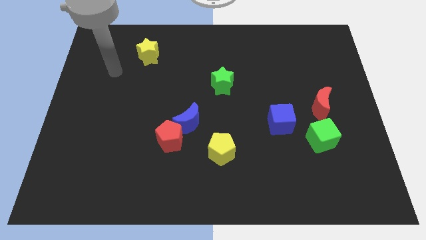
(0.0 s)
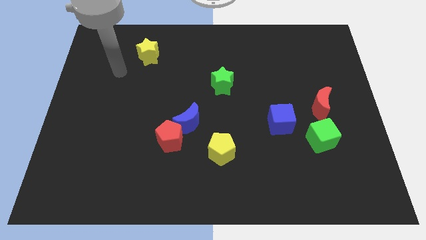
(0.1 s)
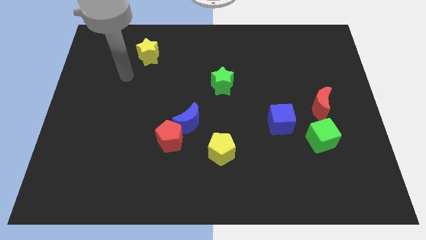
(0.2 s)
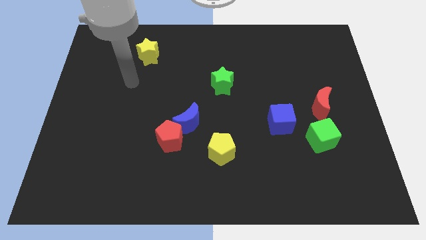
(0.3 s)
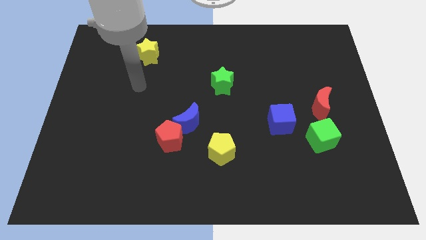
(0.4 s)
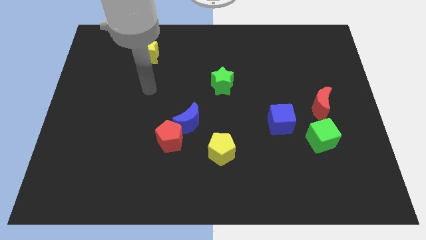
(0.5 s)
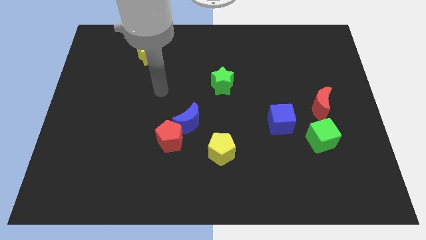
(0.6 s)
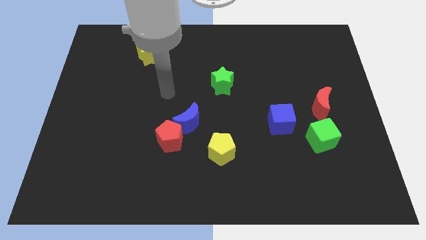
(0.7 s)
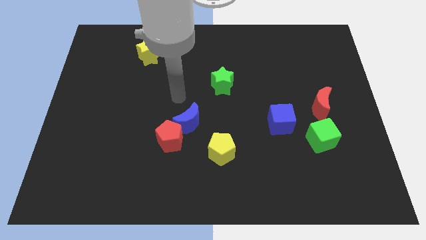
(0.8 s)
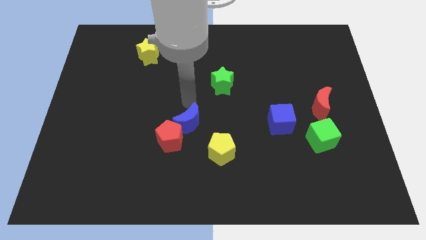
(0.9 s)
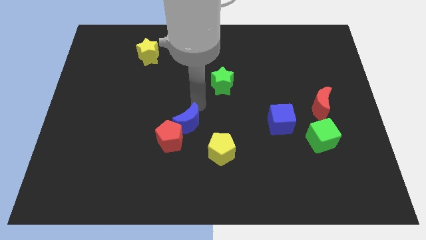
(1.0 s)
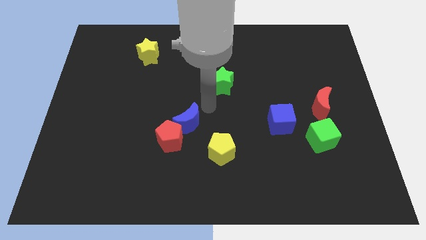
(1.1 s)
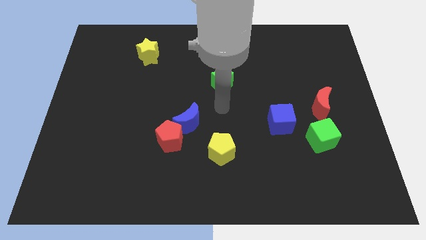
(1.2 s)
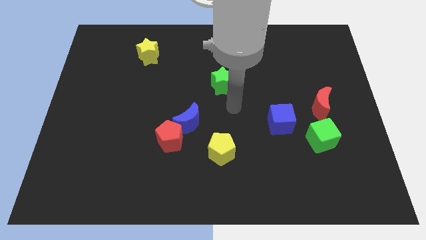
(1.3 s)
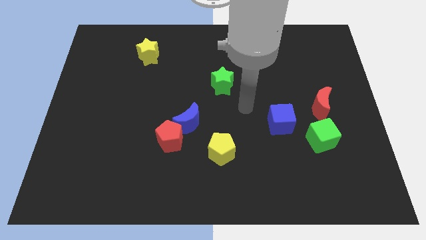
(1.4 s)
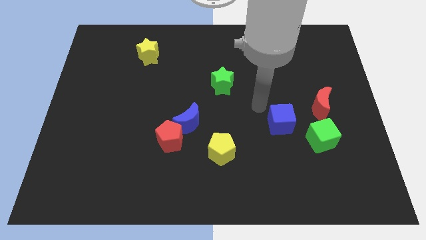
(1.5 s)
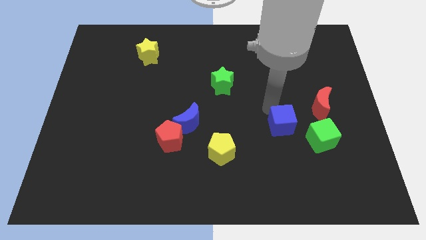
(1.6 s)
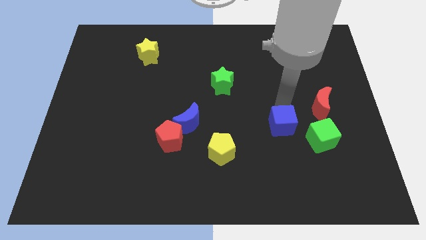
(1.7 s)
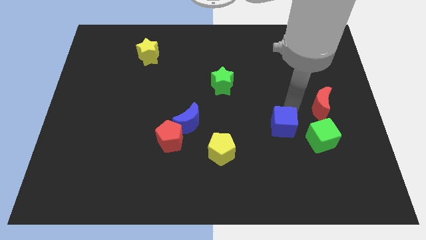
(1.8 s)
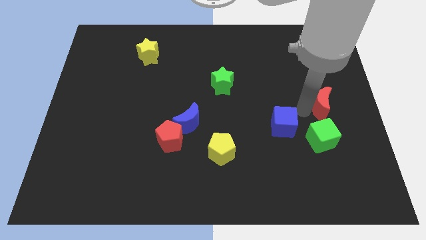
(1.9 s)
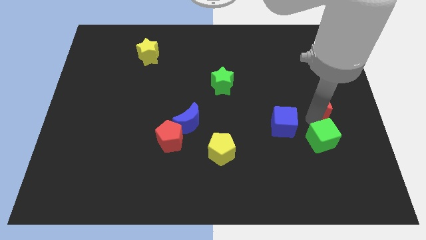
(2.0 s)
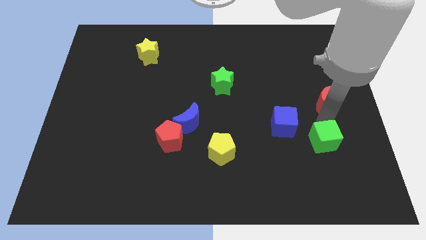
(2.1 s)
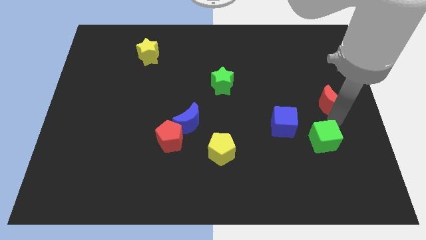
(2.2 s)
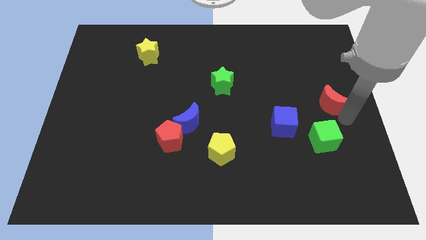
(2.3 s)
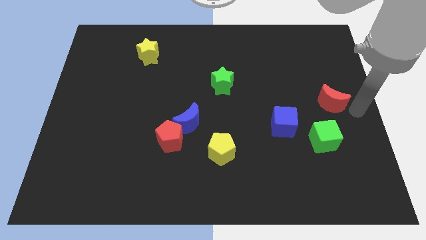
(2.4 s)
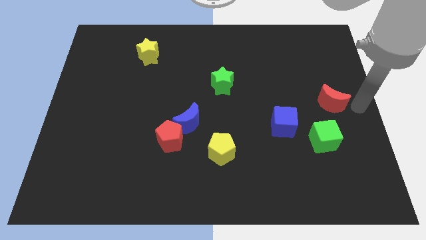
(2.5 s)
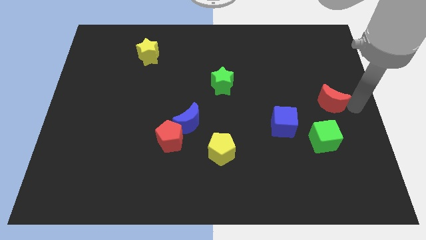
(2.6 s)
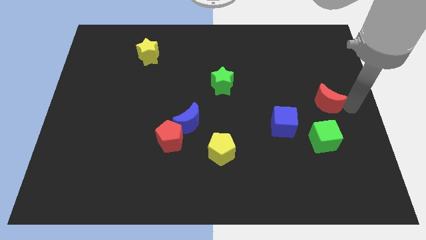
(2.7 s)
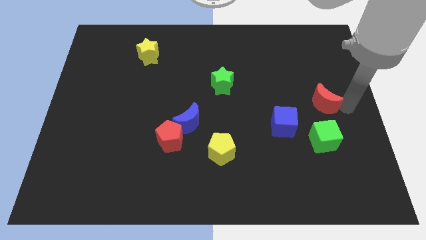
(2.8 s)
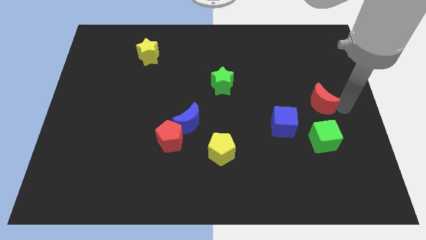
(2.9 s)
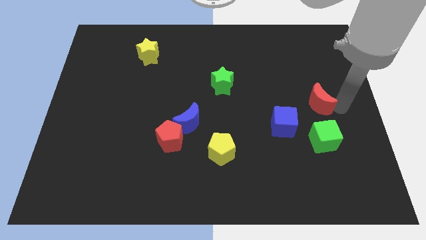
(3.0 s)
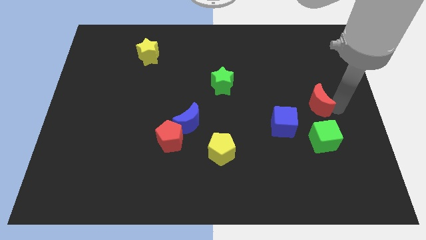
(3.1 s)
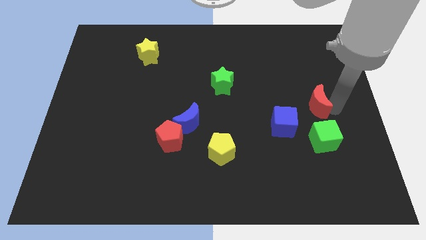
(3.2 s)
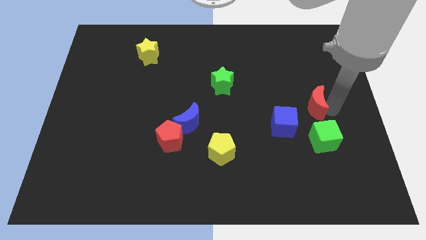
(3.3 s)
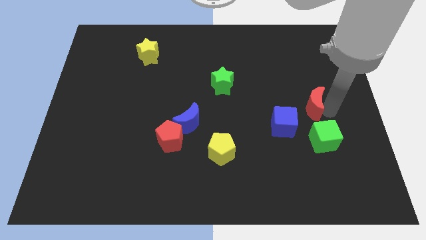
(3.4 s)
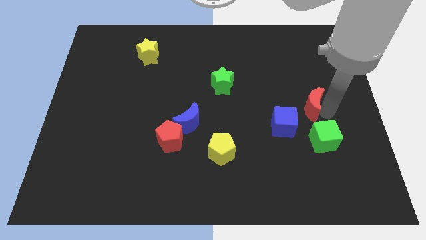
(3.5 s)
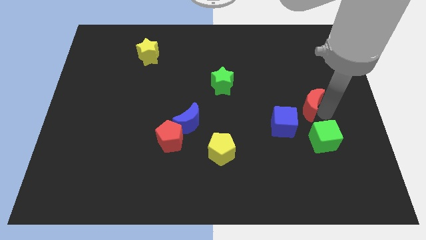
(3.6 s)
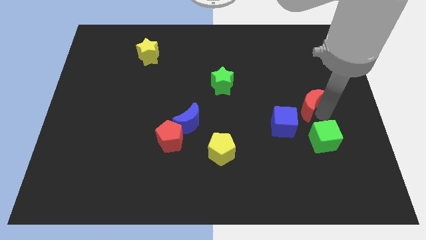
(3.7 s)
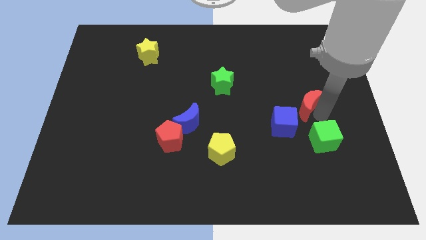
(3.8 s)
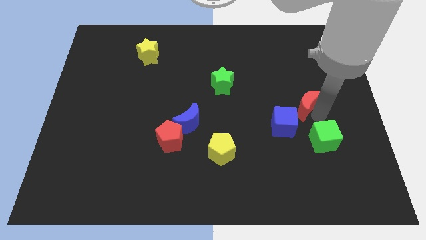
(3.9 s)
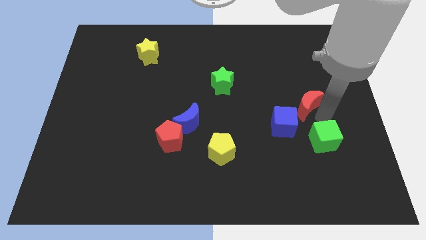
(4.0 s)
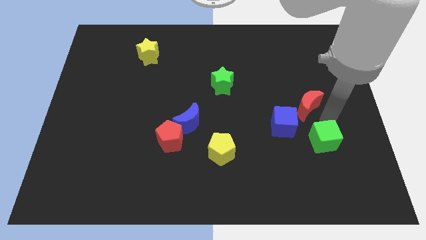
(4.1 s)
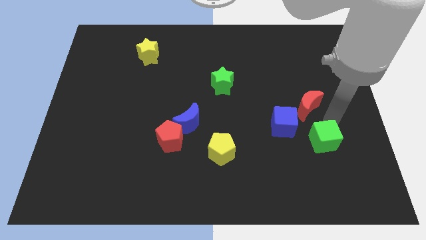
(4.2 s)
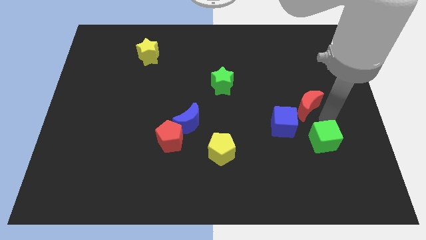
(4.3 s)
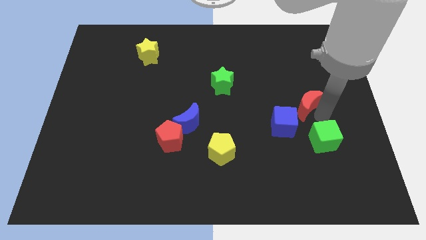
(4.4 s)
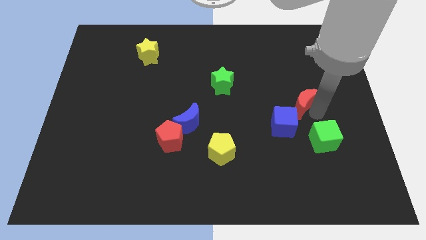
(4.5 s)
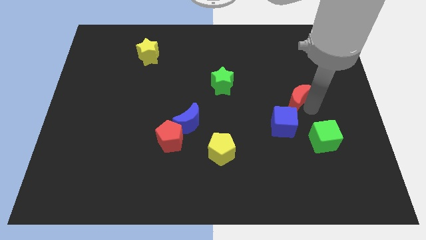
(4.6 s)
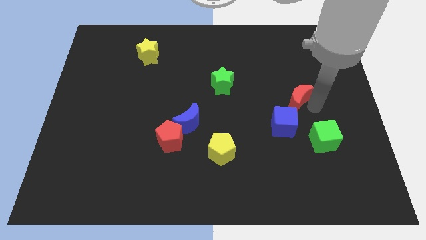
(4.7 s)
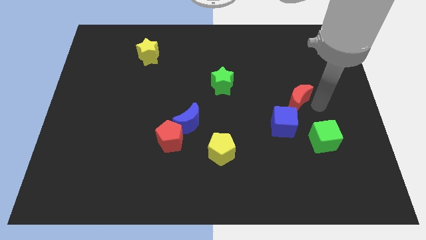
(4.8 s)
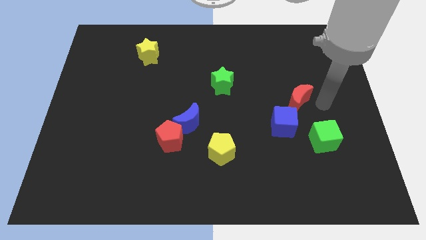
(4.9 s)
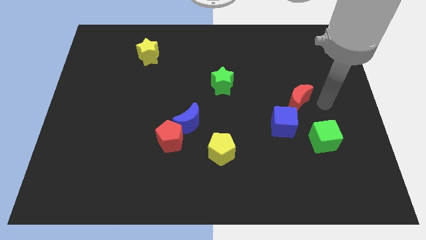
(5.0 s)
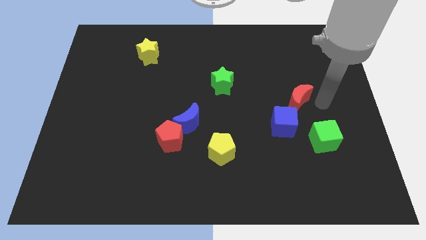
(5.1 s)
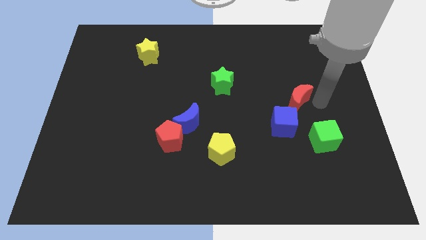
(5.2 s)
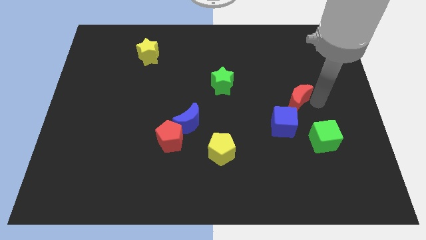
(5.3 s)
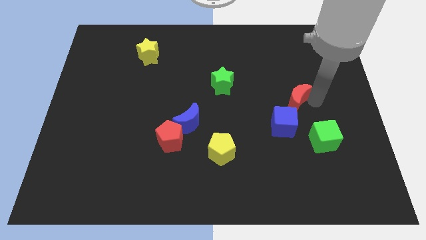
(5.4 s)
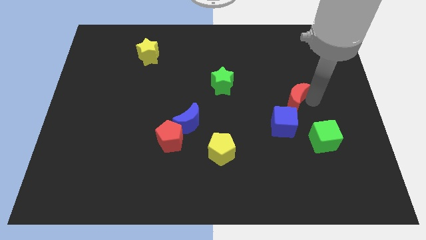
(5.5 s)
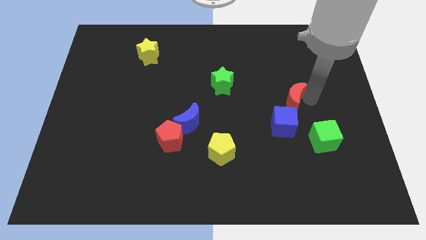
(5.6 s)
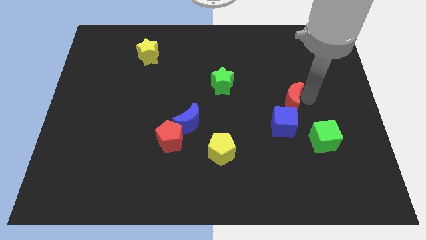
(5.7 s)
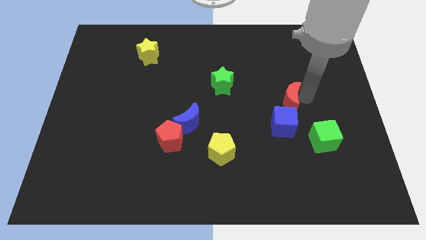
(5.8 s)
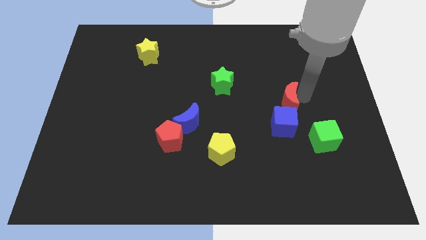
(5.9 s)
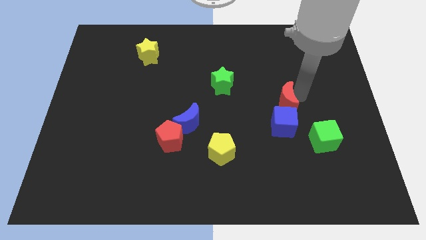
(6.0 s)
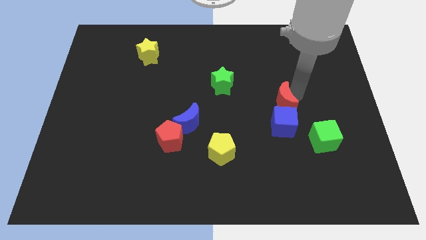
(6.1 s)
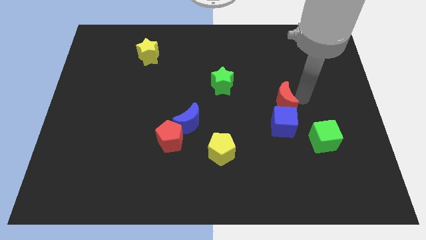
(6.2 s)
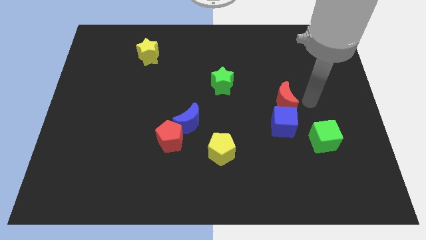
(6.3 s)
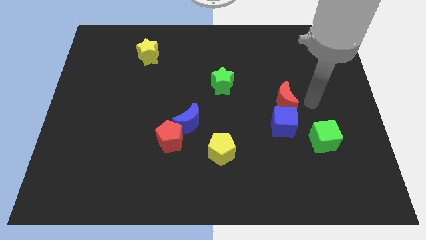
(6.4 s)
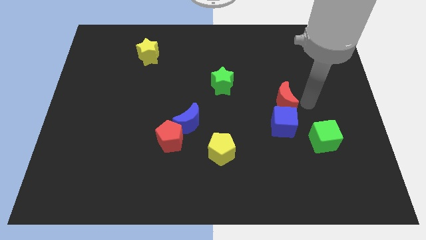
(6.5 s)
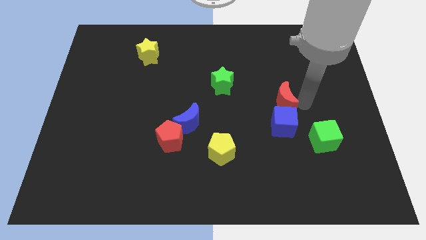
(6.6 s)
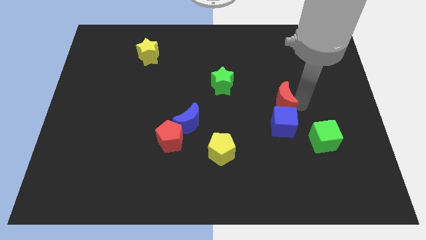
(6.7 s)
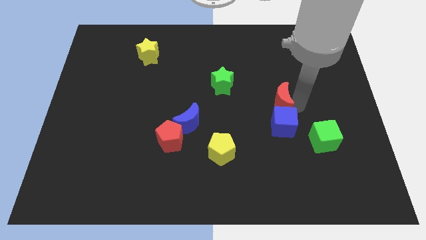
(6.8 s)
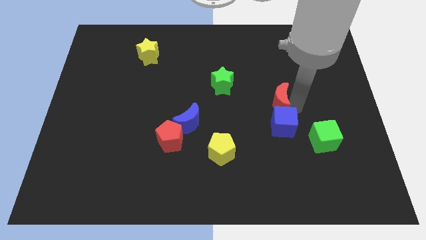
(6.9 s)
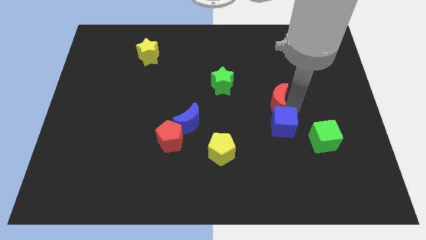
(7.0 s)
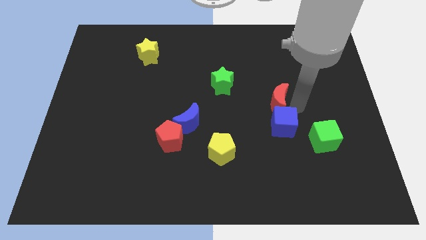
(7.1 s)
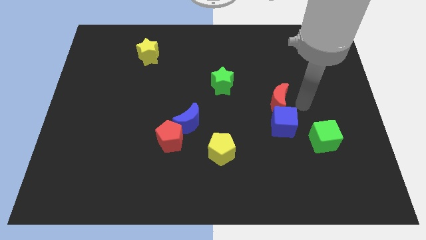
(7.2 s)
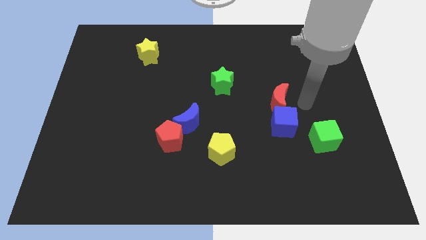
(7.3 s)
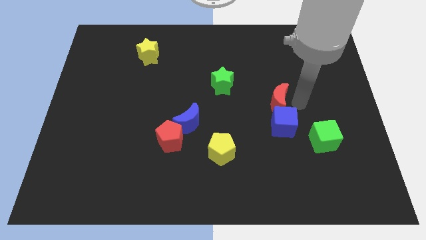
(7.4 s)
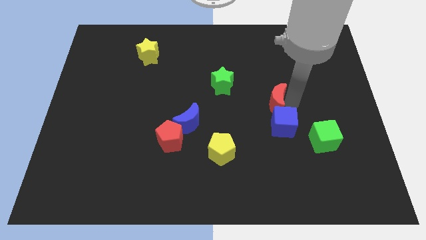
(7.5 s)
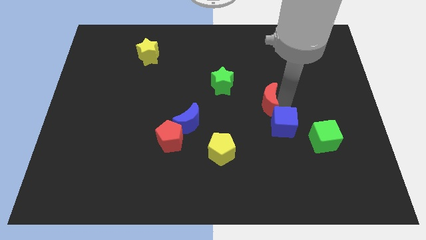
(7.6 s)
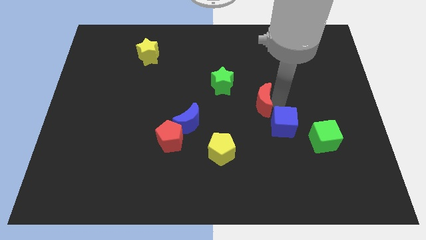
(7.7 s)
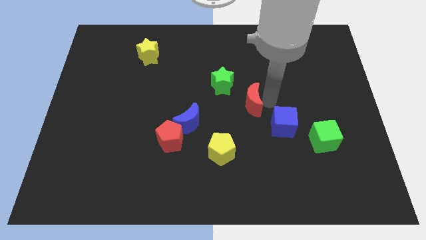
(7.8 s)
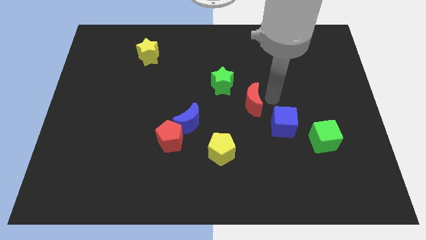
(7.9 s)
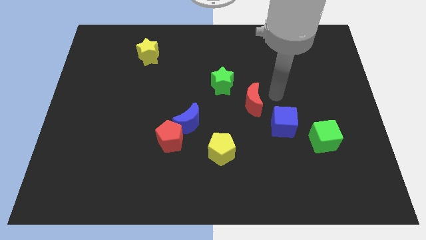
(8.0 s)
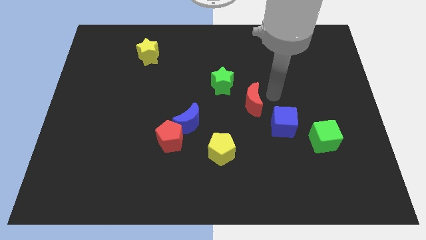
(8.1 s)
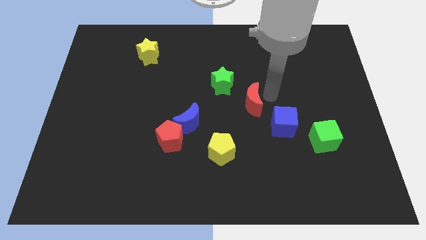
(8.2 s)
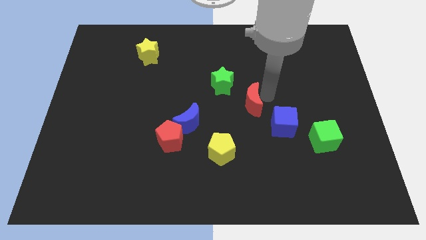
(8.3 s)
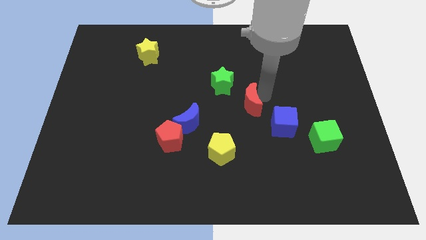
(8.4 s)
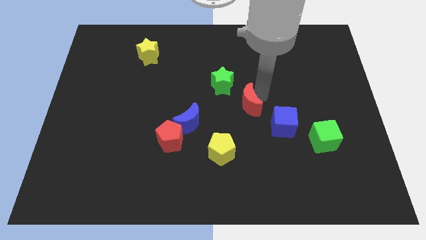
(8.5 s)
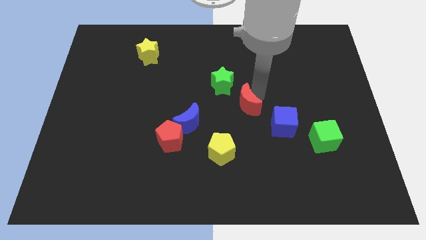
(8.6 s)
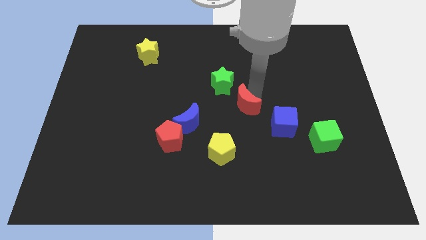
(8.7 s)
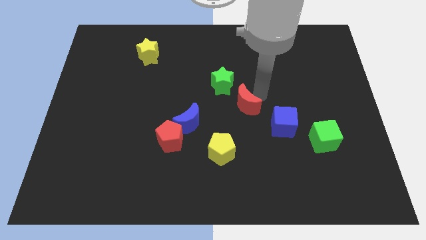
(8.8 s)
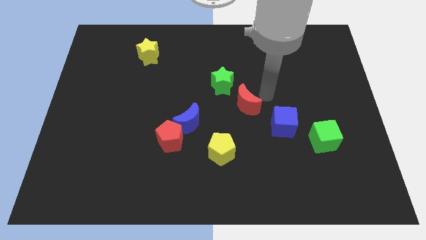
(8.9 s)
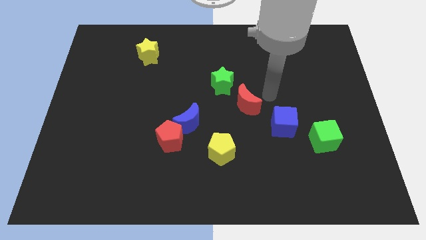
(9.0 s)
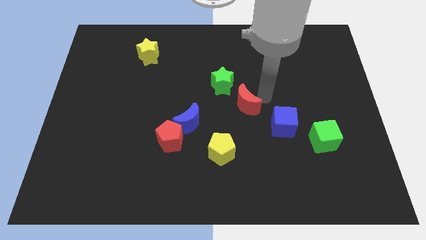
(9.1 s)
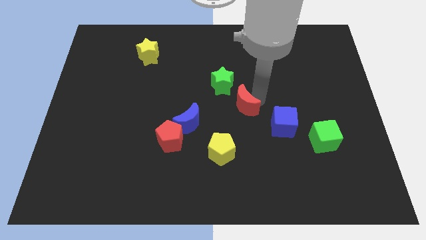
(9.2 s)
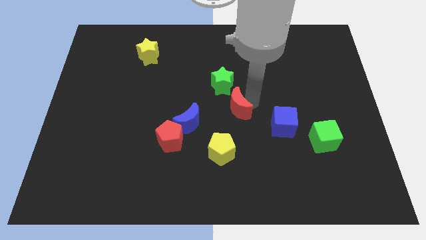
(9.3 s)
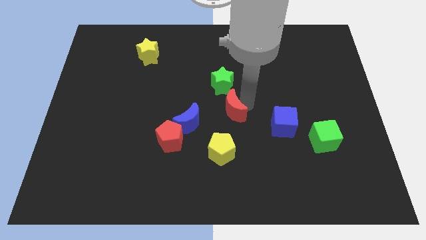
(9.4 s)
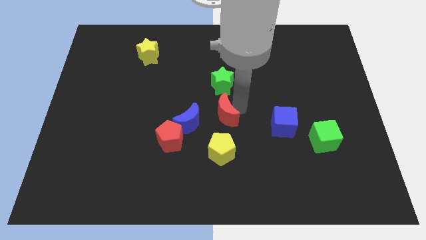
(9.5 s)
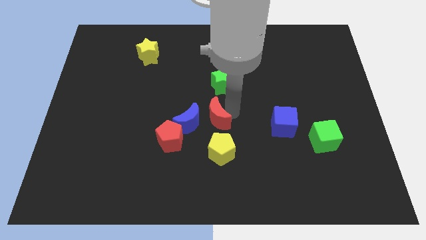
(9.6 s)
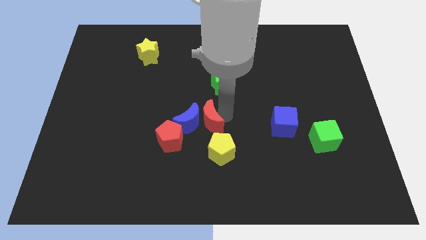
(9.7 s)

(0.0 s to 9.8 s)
slide the red moon next to the blue moon
